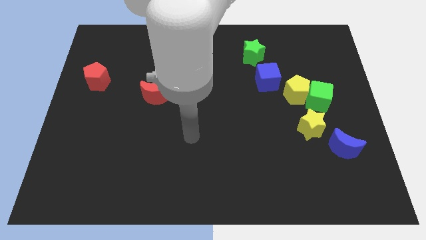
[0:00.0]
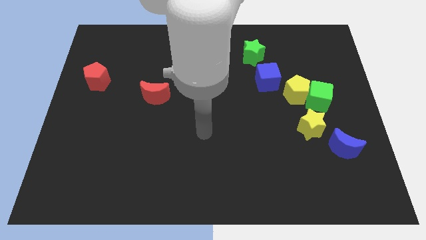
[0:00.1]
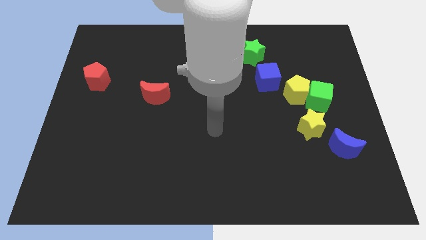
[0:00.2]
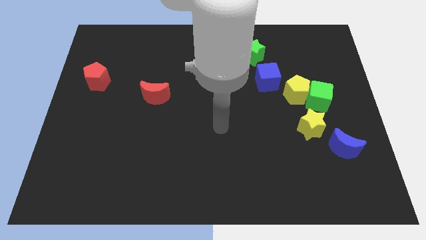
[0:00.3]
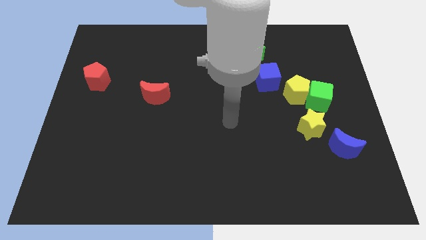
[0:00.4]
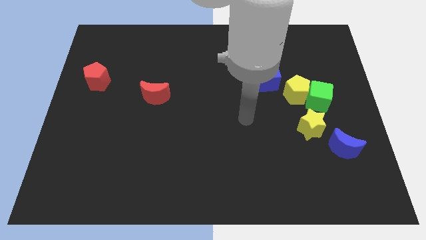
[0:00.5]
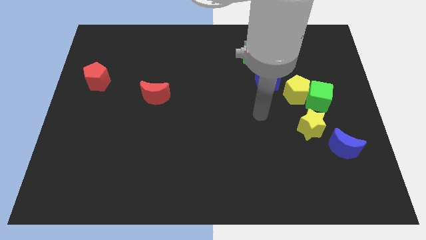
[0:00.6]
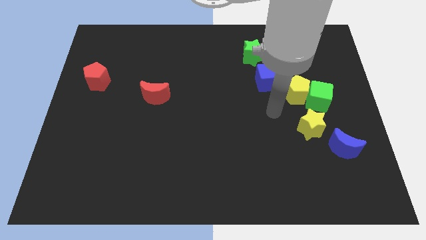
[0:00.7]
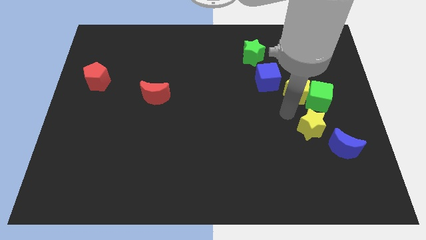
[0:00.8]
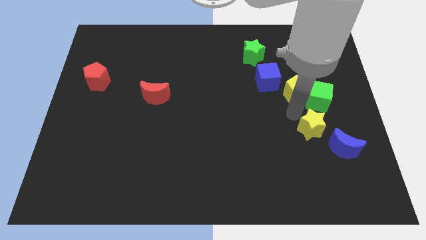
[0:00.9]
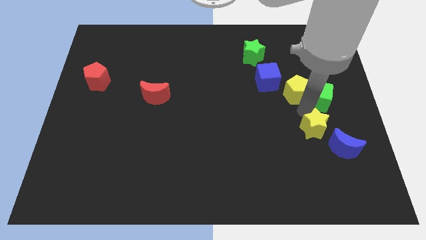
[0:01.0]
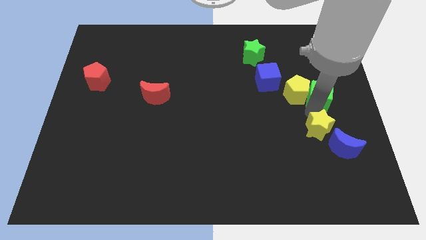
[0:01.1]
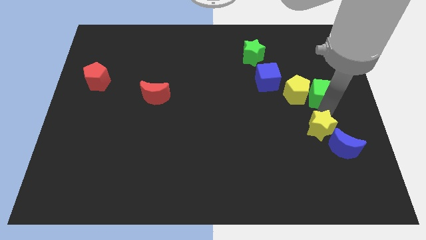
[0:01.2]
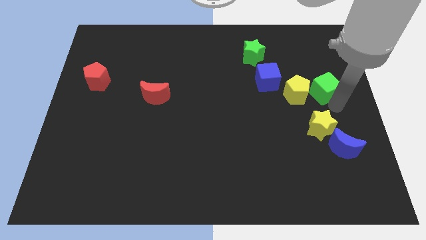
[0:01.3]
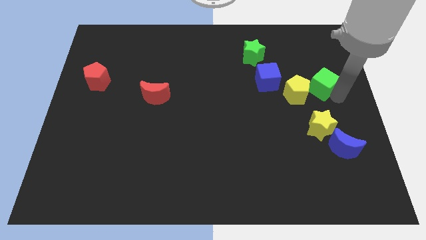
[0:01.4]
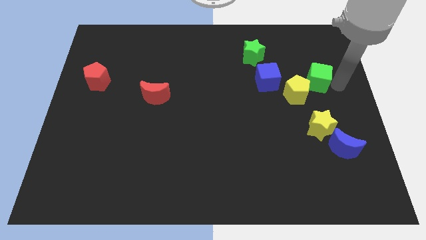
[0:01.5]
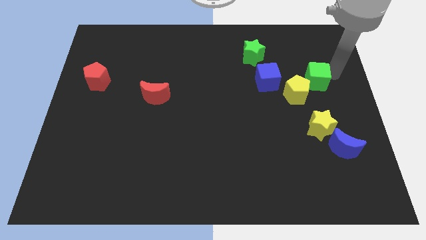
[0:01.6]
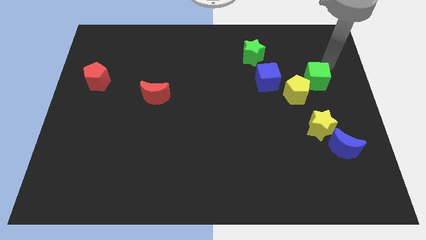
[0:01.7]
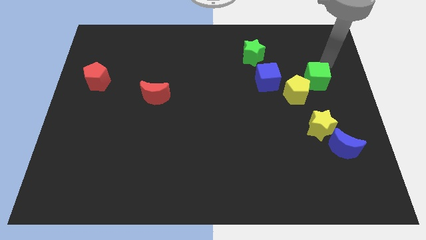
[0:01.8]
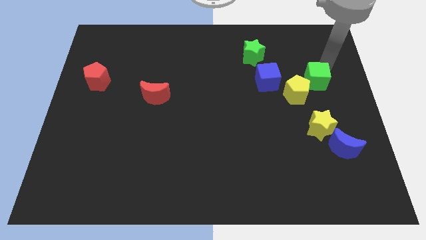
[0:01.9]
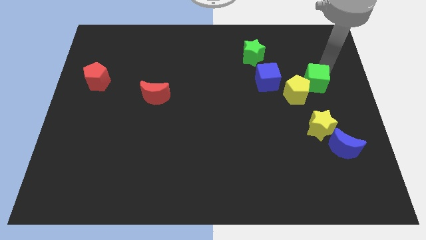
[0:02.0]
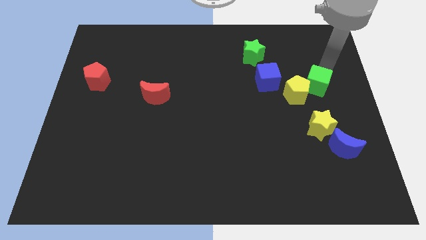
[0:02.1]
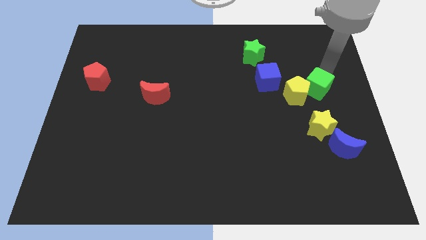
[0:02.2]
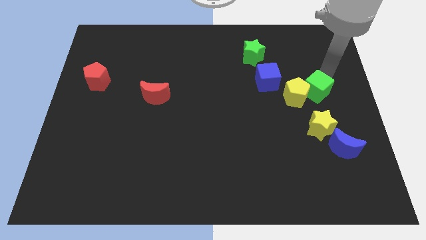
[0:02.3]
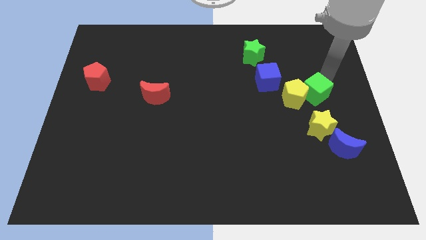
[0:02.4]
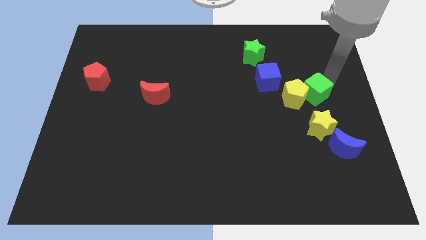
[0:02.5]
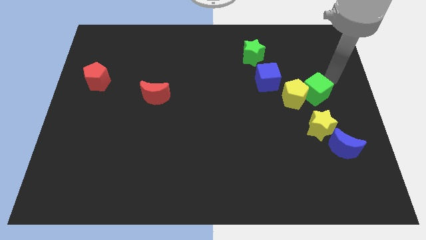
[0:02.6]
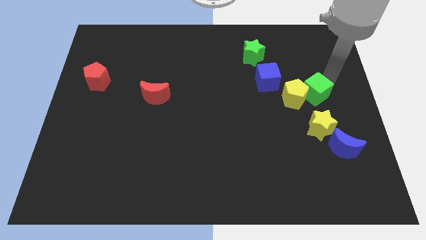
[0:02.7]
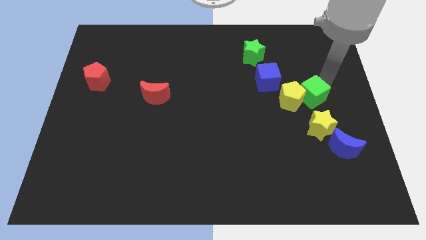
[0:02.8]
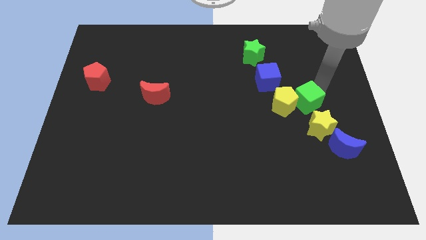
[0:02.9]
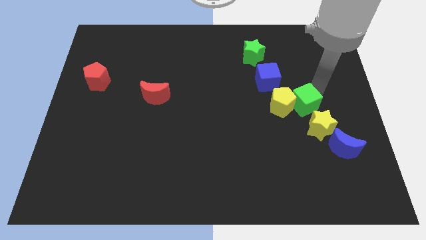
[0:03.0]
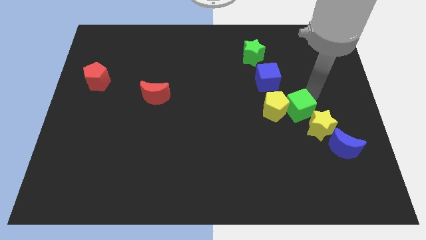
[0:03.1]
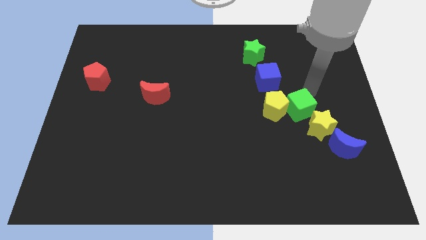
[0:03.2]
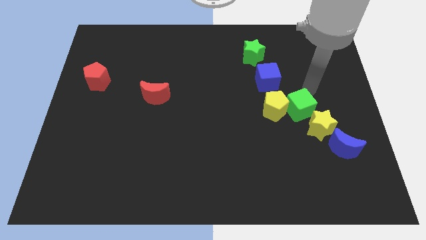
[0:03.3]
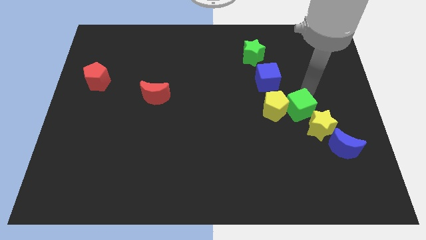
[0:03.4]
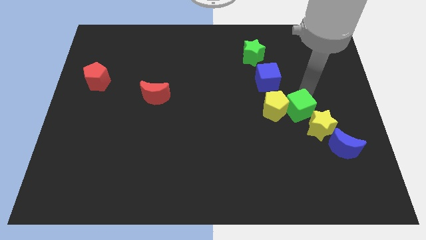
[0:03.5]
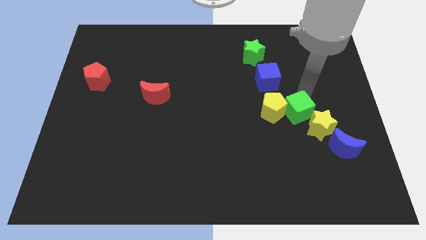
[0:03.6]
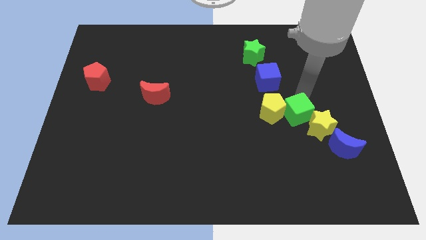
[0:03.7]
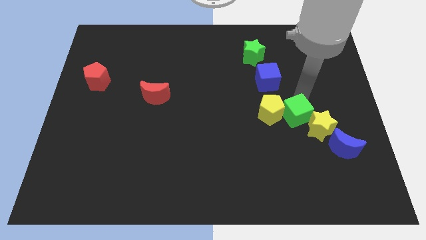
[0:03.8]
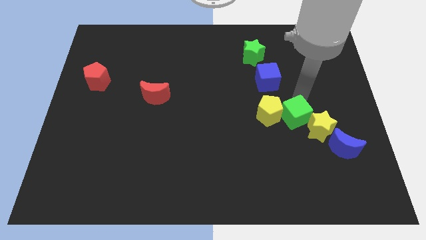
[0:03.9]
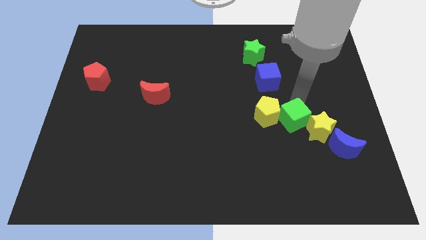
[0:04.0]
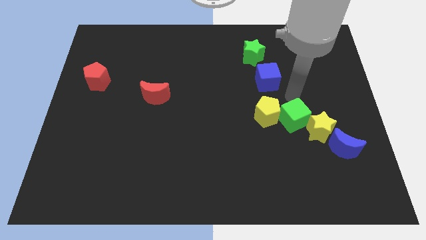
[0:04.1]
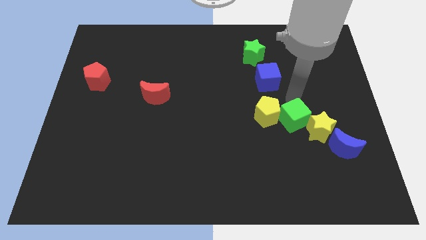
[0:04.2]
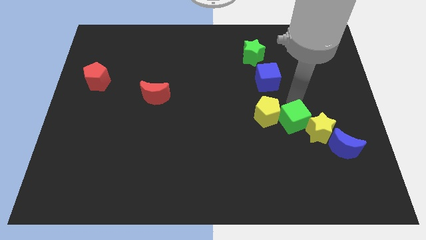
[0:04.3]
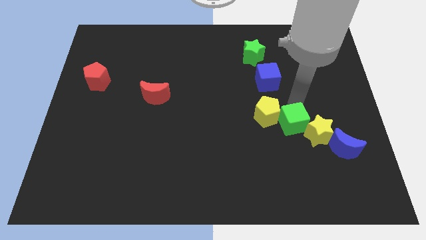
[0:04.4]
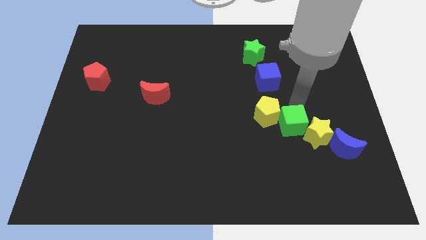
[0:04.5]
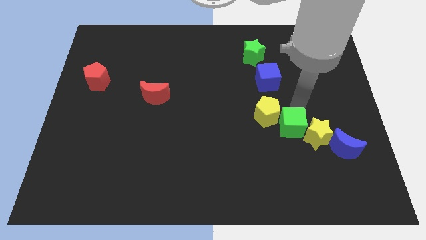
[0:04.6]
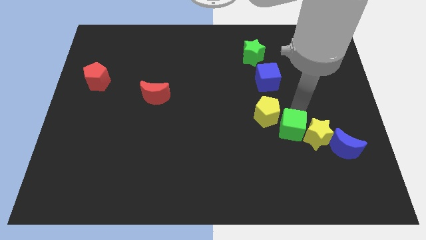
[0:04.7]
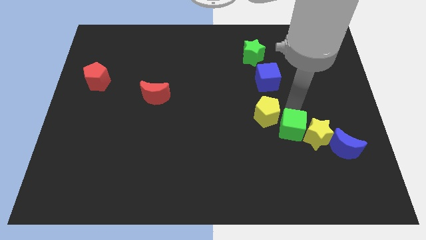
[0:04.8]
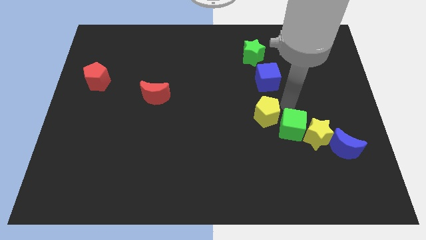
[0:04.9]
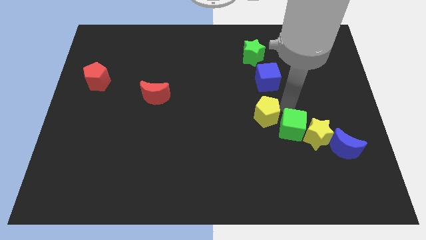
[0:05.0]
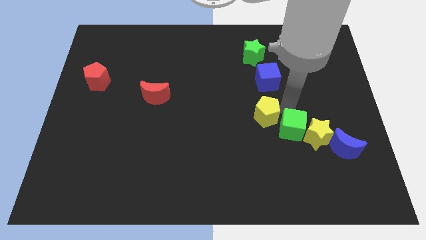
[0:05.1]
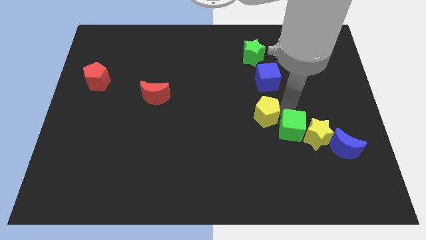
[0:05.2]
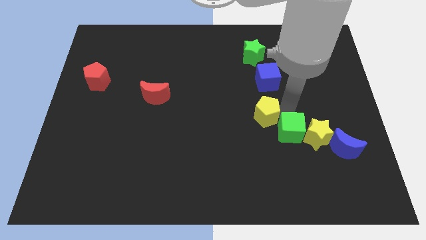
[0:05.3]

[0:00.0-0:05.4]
push the green cube to the left of the blue moon

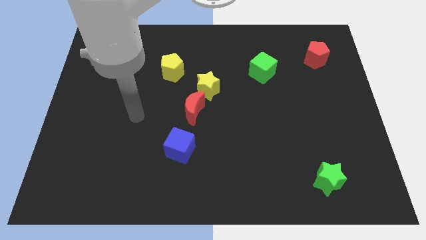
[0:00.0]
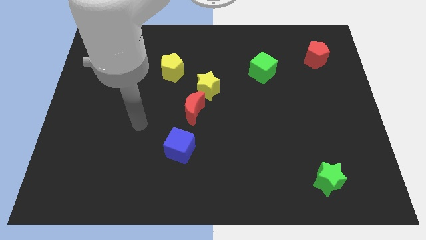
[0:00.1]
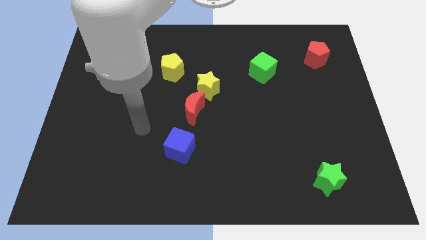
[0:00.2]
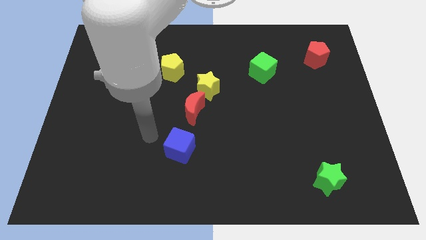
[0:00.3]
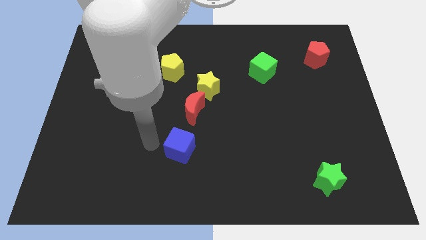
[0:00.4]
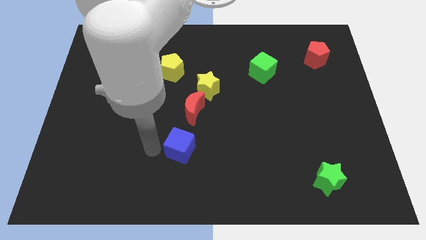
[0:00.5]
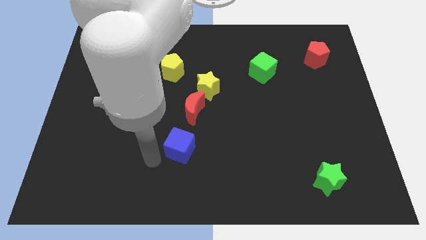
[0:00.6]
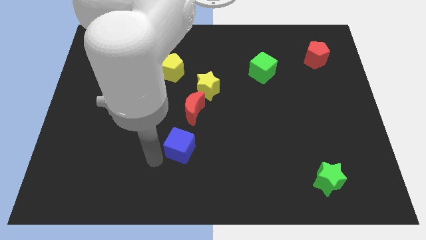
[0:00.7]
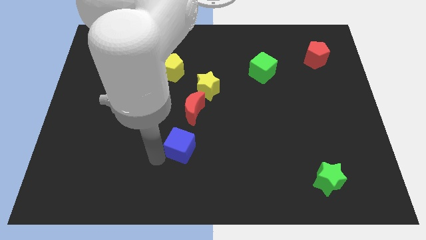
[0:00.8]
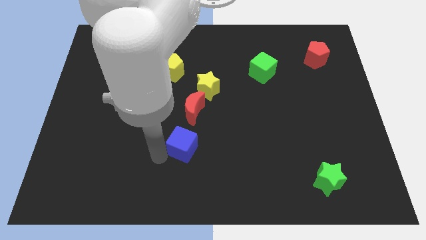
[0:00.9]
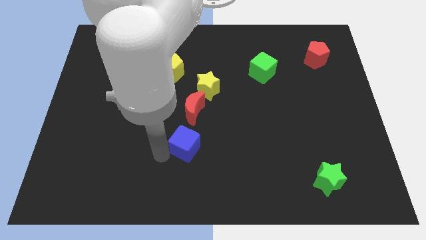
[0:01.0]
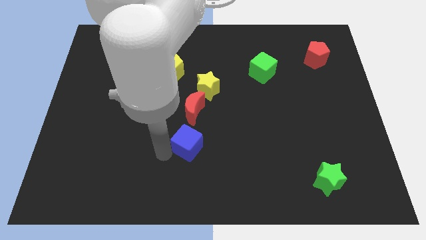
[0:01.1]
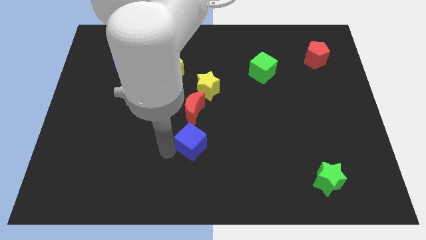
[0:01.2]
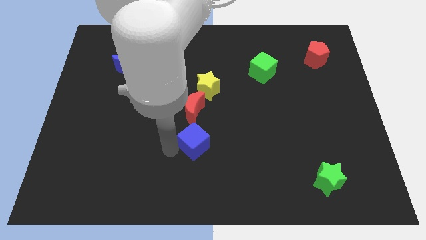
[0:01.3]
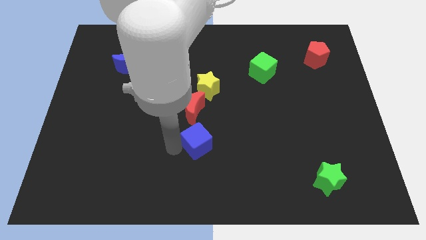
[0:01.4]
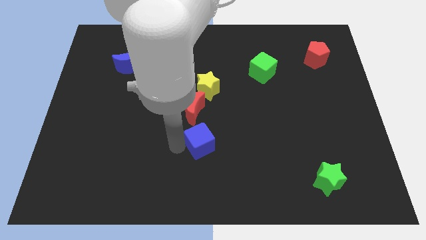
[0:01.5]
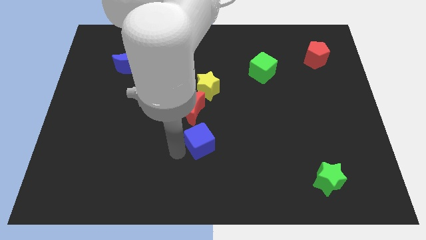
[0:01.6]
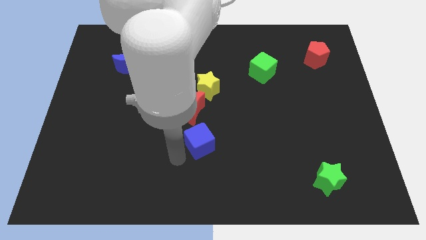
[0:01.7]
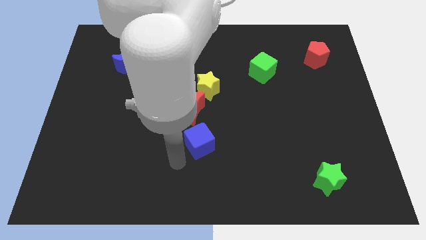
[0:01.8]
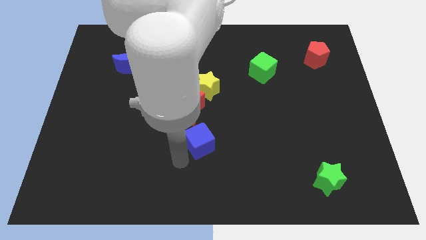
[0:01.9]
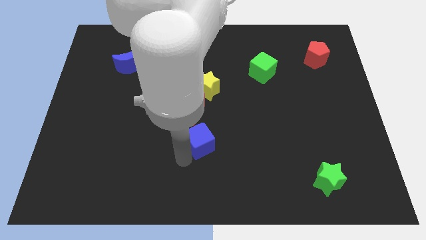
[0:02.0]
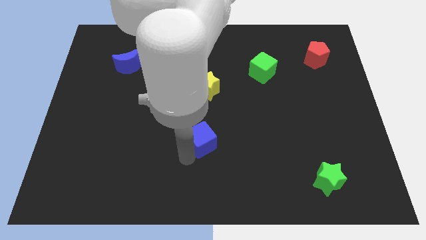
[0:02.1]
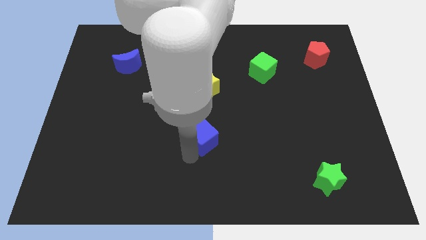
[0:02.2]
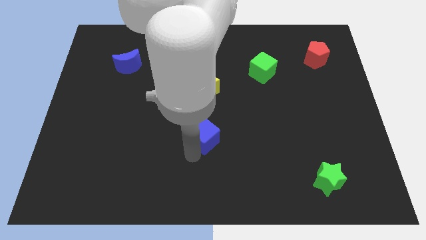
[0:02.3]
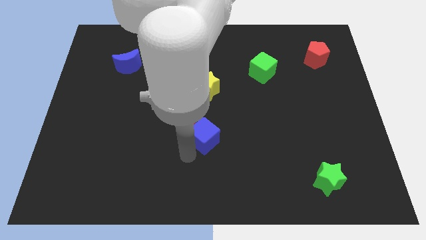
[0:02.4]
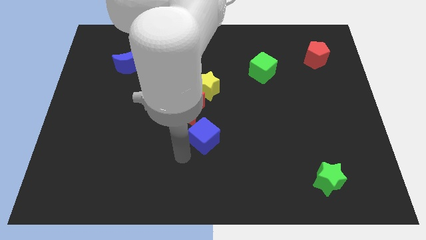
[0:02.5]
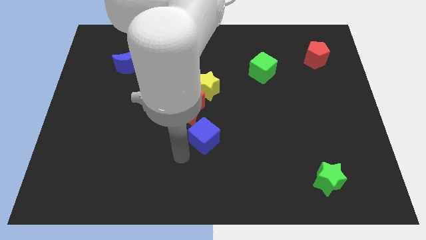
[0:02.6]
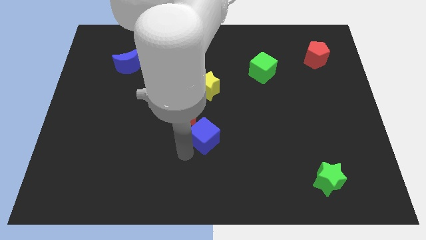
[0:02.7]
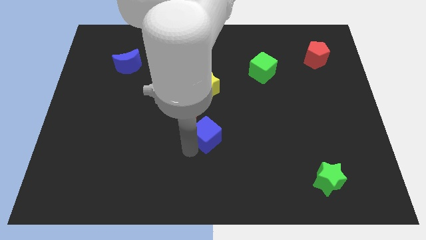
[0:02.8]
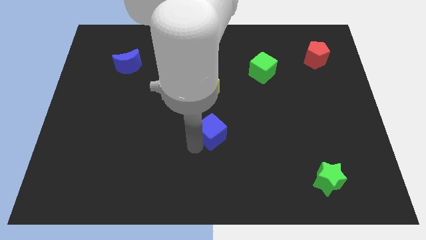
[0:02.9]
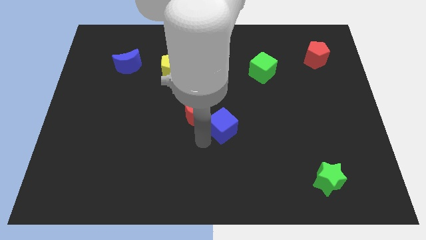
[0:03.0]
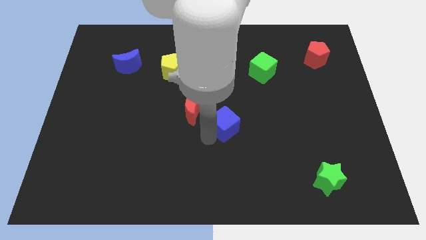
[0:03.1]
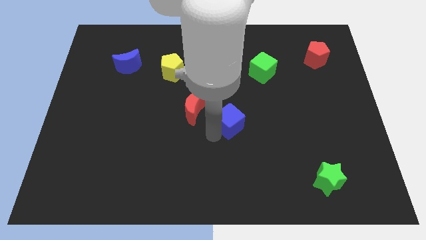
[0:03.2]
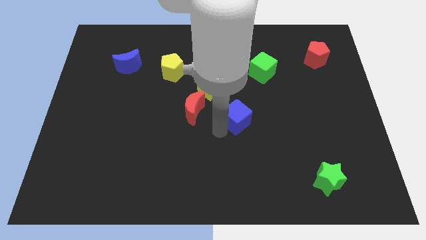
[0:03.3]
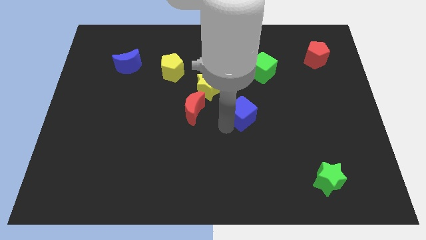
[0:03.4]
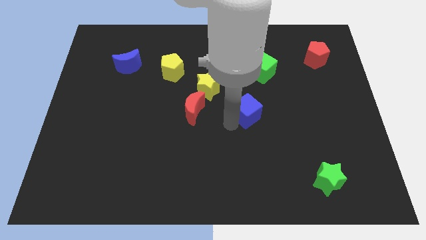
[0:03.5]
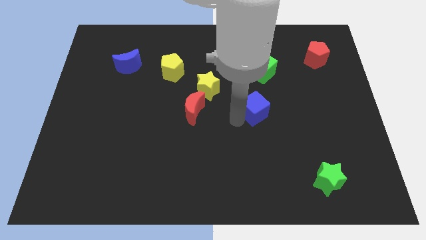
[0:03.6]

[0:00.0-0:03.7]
move the blue cube to the bottom side of the green cube
